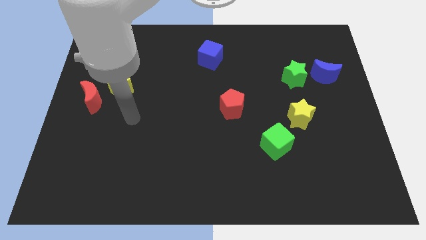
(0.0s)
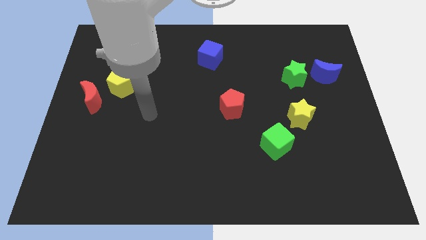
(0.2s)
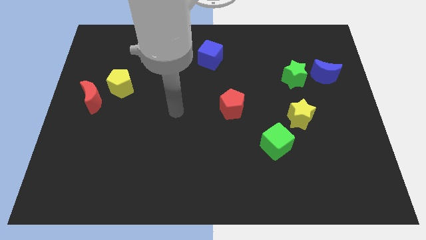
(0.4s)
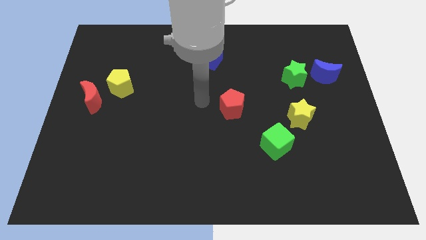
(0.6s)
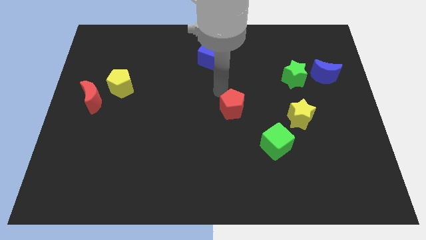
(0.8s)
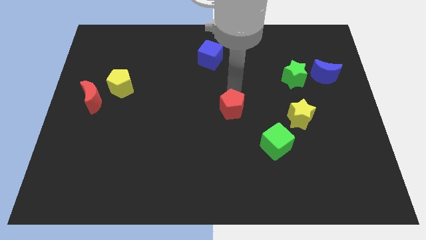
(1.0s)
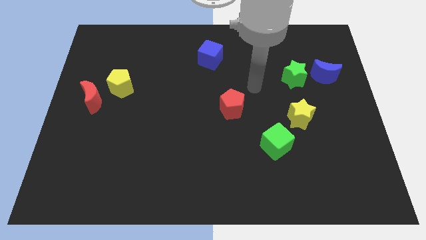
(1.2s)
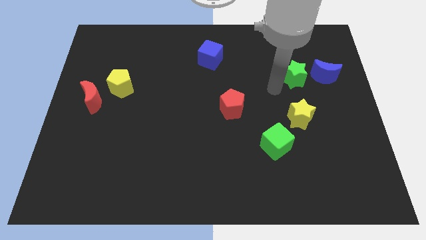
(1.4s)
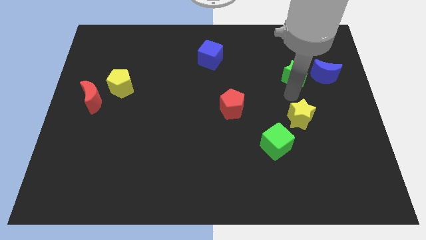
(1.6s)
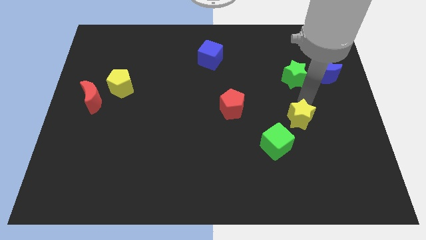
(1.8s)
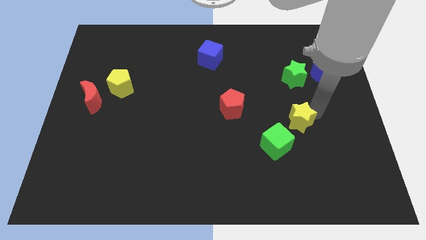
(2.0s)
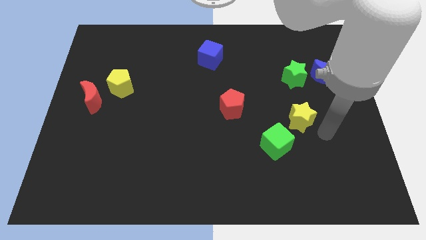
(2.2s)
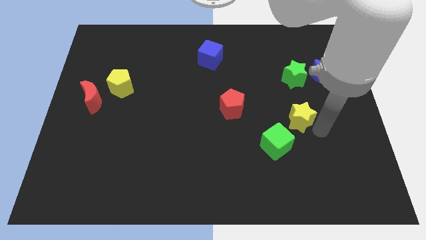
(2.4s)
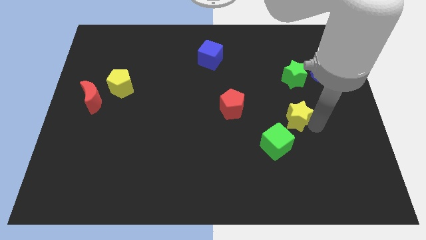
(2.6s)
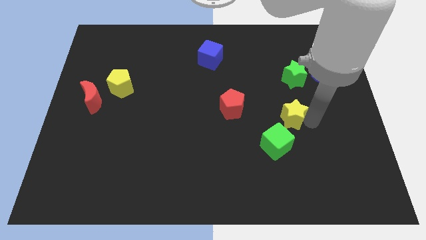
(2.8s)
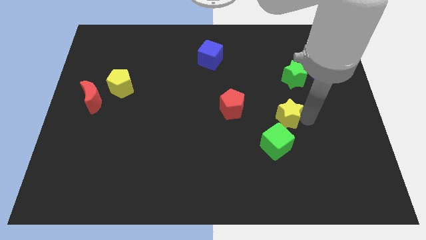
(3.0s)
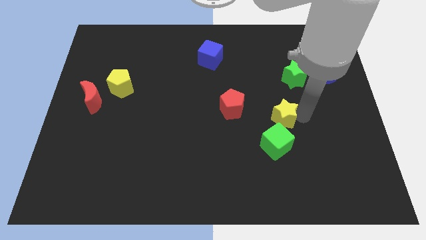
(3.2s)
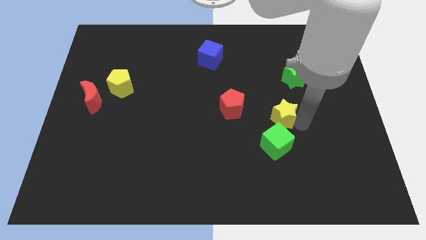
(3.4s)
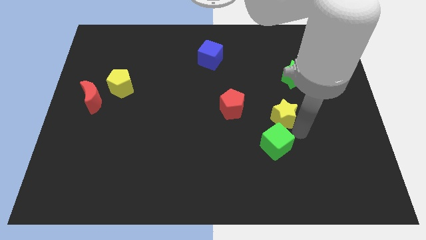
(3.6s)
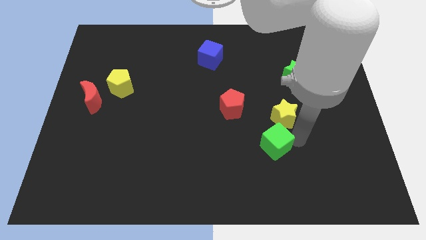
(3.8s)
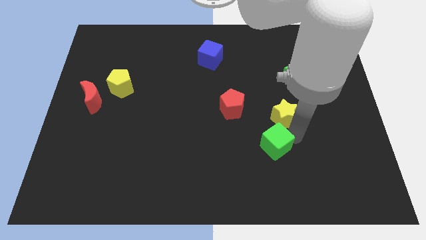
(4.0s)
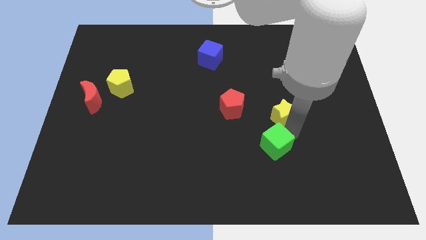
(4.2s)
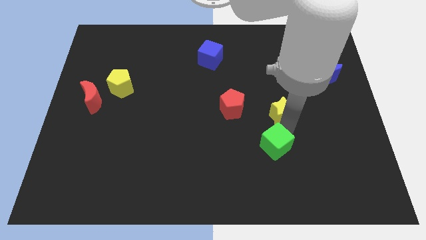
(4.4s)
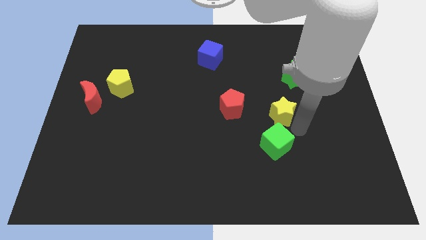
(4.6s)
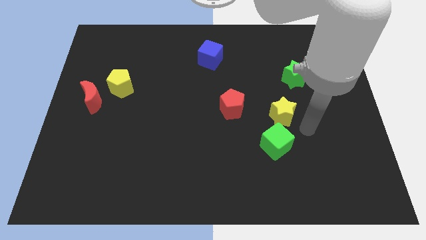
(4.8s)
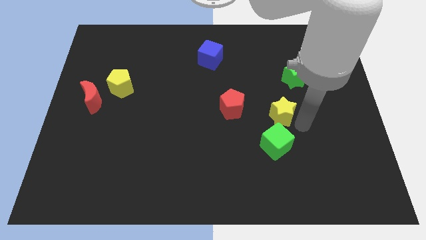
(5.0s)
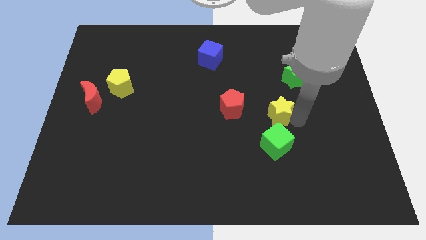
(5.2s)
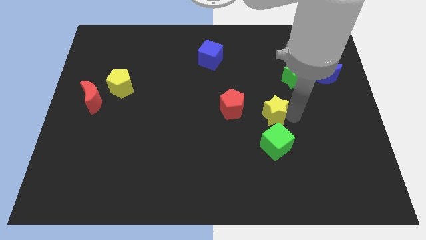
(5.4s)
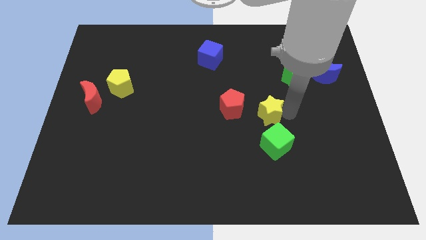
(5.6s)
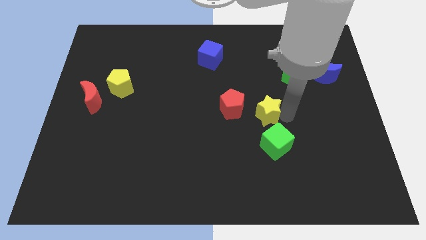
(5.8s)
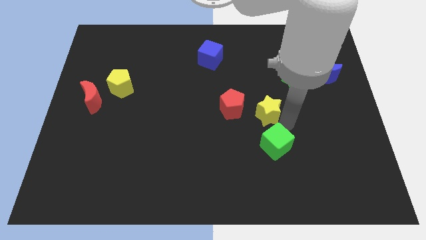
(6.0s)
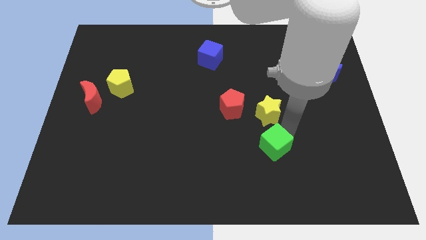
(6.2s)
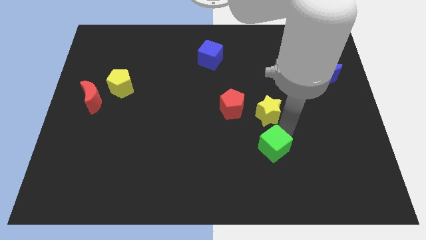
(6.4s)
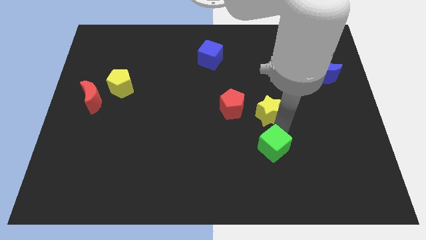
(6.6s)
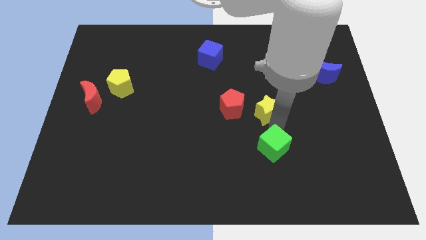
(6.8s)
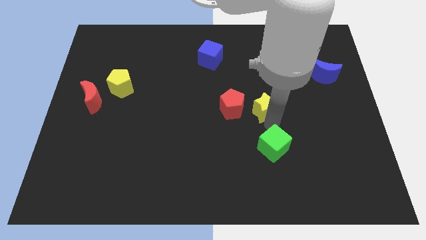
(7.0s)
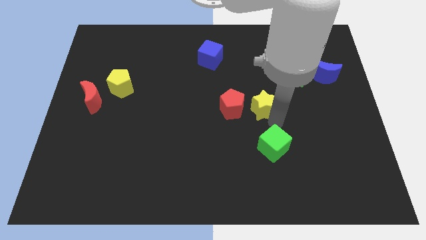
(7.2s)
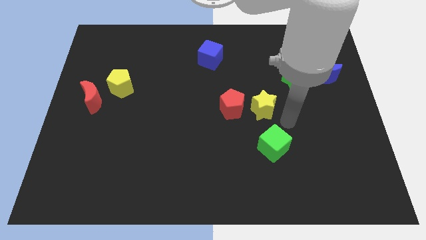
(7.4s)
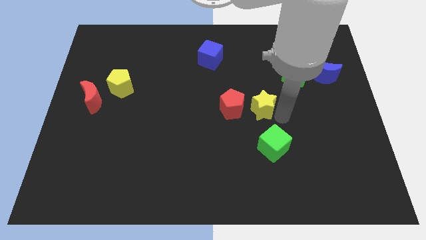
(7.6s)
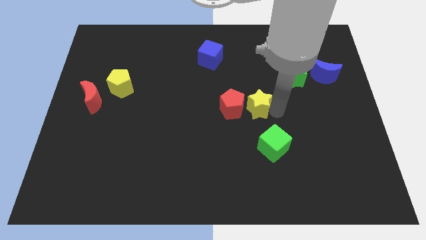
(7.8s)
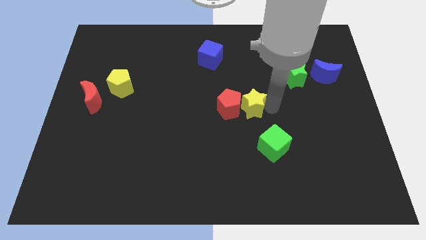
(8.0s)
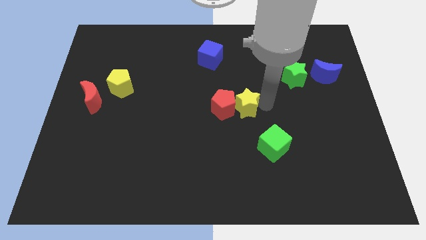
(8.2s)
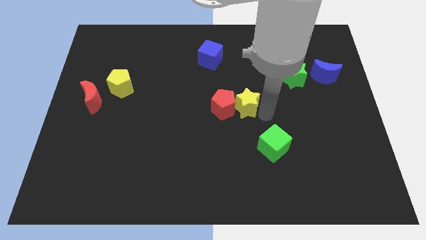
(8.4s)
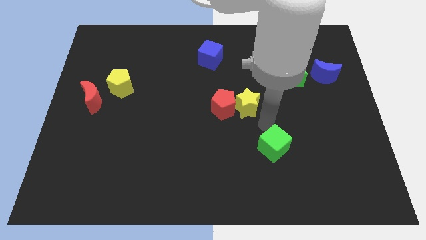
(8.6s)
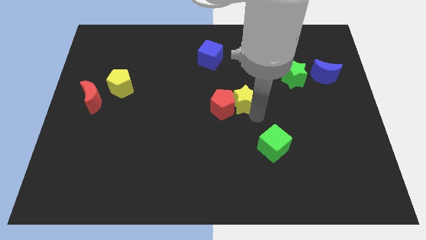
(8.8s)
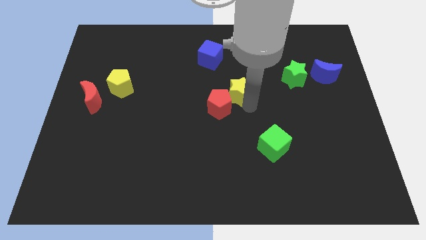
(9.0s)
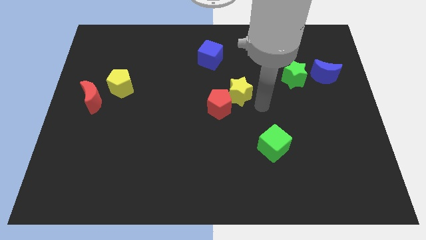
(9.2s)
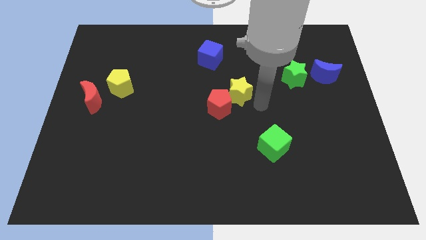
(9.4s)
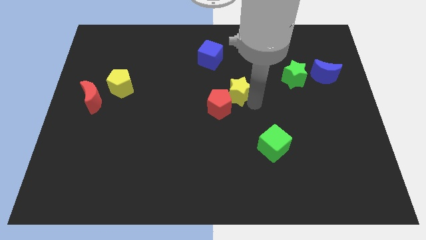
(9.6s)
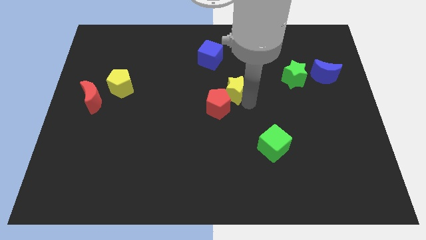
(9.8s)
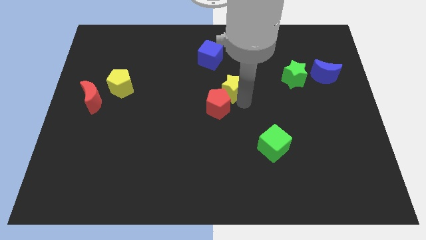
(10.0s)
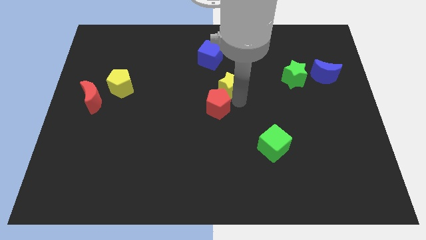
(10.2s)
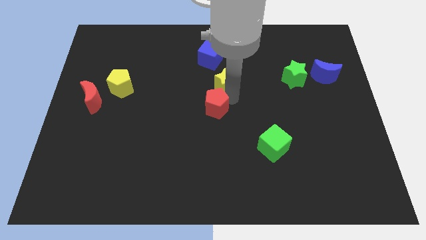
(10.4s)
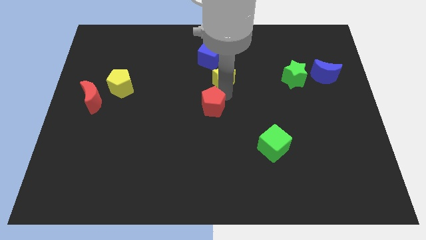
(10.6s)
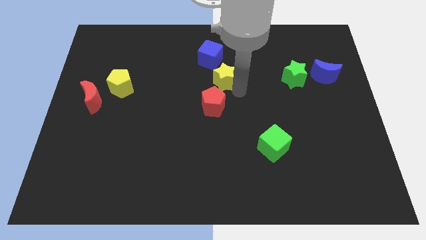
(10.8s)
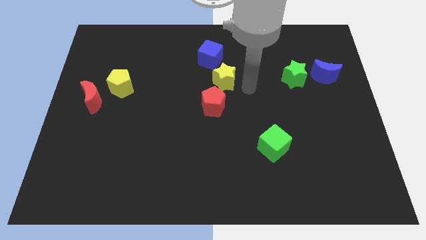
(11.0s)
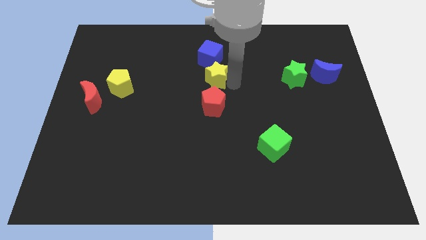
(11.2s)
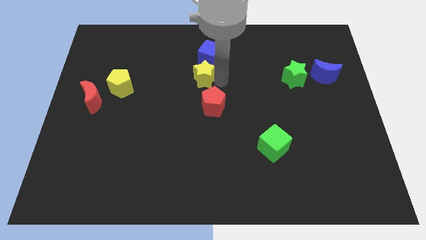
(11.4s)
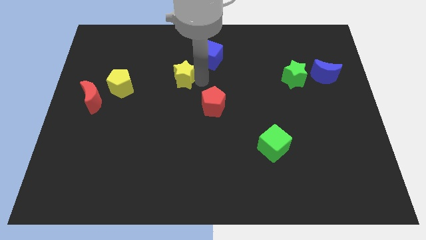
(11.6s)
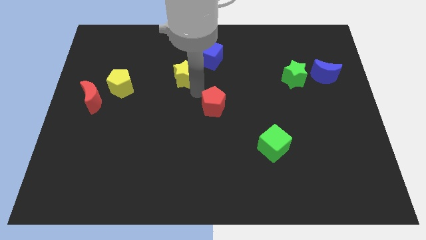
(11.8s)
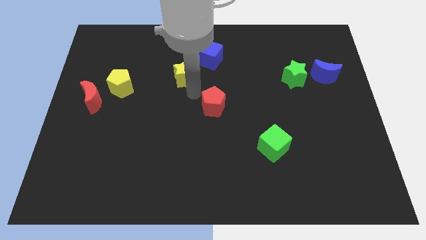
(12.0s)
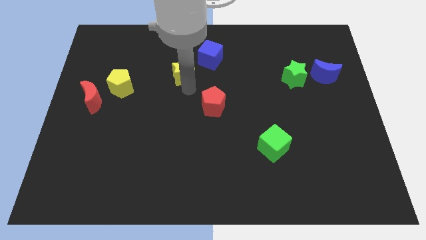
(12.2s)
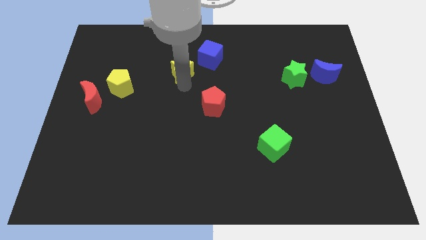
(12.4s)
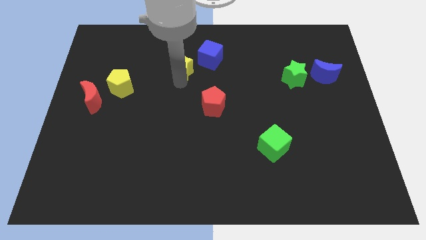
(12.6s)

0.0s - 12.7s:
slide the yellow star just left of the blue cube
